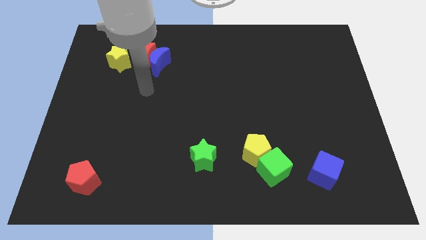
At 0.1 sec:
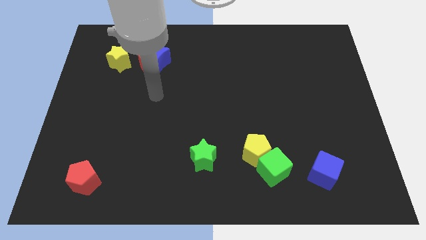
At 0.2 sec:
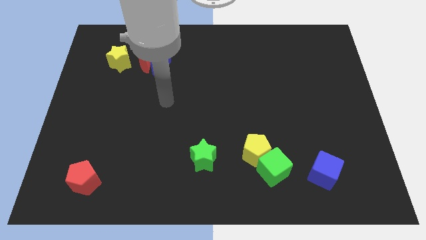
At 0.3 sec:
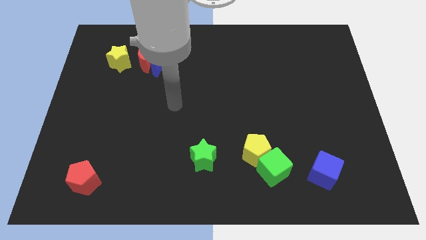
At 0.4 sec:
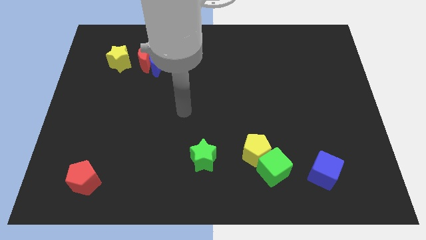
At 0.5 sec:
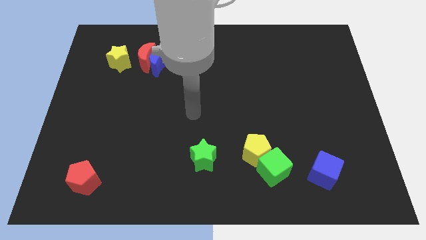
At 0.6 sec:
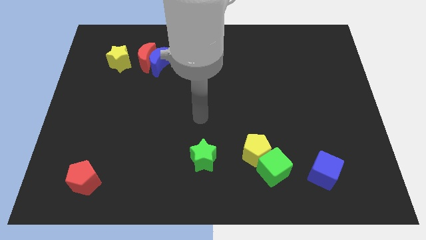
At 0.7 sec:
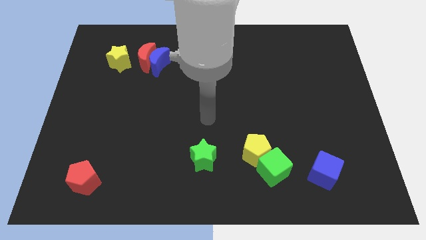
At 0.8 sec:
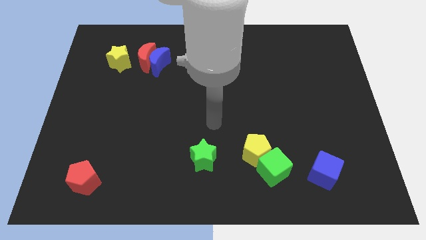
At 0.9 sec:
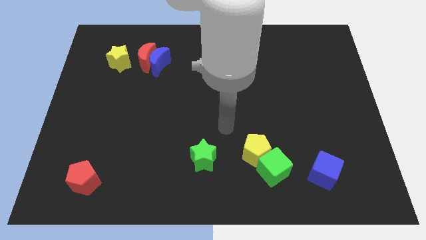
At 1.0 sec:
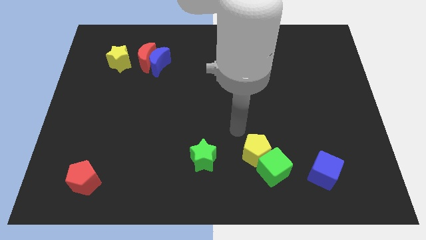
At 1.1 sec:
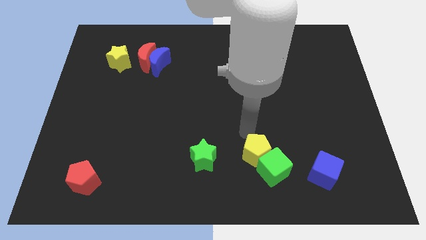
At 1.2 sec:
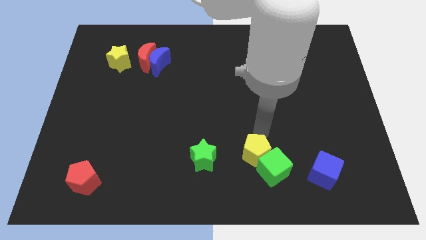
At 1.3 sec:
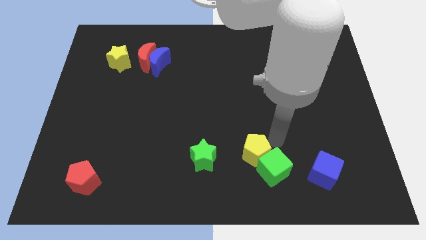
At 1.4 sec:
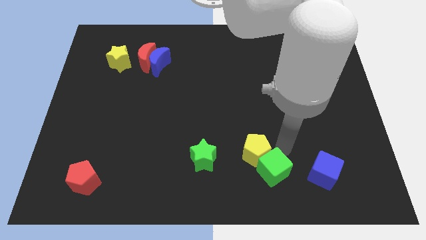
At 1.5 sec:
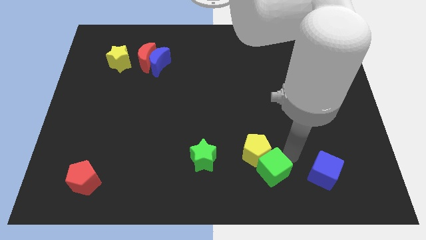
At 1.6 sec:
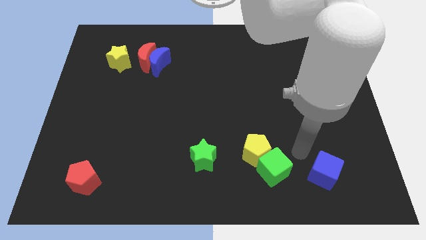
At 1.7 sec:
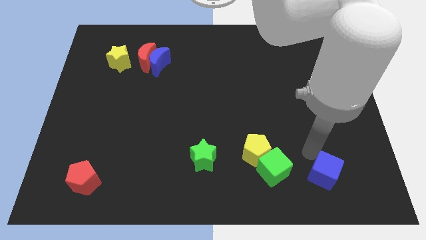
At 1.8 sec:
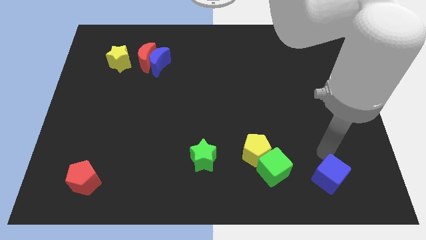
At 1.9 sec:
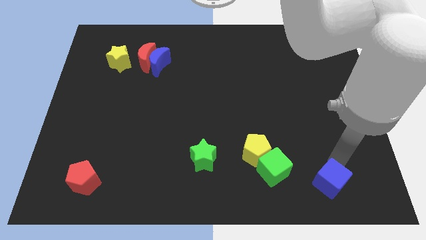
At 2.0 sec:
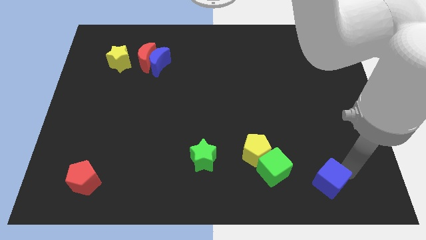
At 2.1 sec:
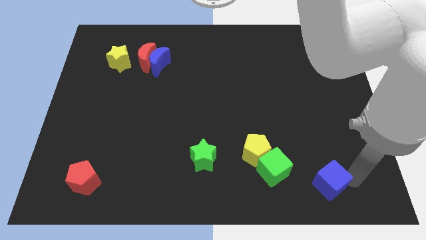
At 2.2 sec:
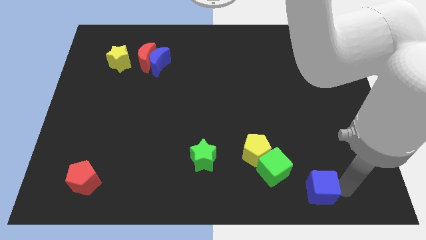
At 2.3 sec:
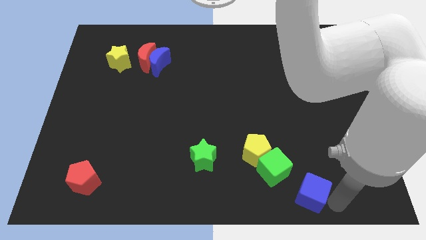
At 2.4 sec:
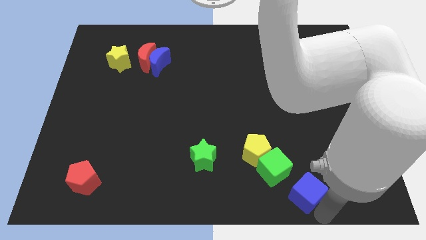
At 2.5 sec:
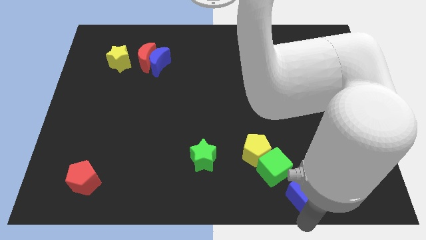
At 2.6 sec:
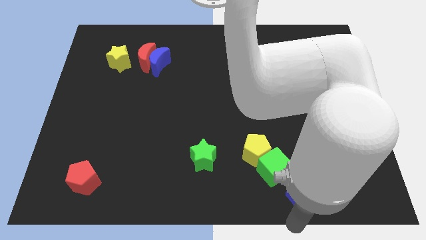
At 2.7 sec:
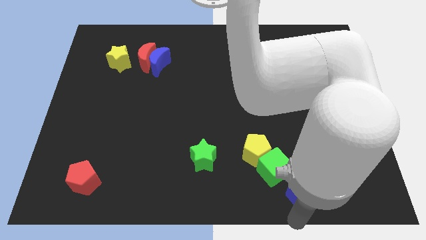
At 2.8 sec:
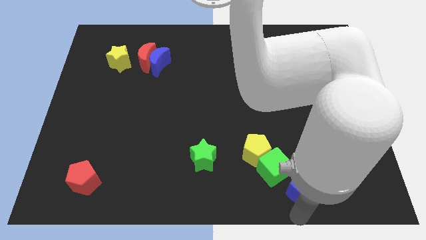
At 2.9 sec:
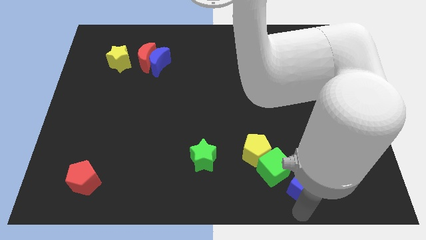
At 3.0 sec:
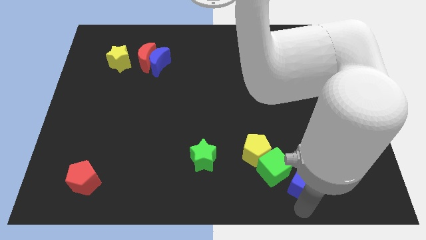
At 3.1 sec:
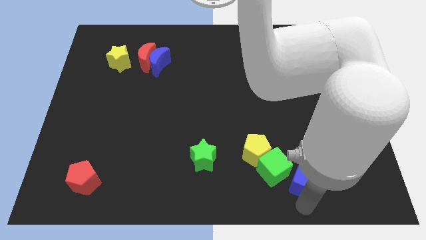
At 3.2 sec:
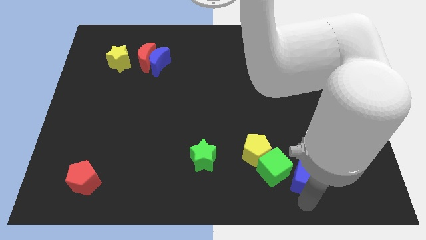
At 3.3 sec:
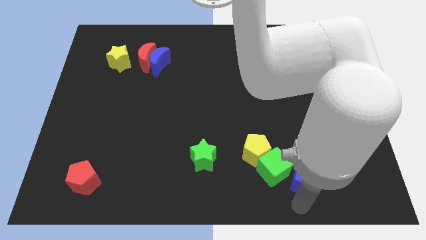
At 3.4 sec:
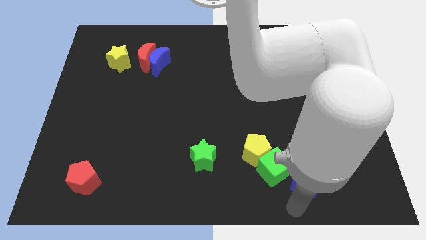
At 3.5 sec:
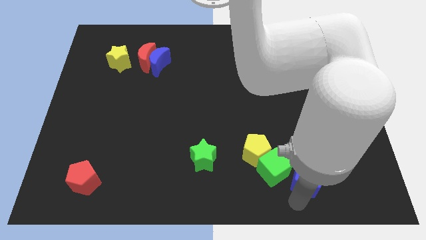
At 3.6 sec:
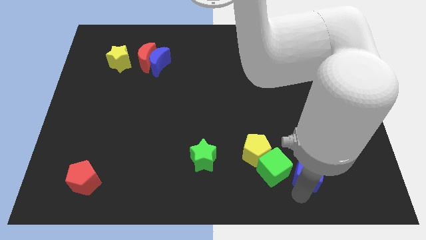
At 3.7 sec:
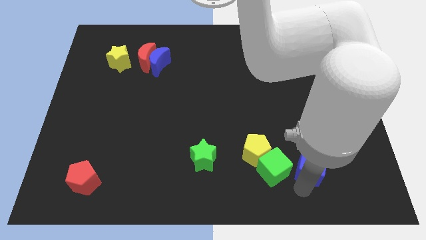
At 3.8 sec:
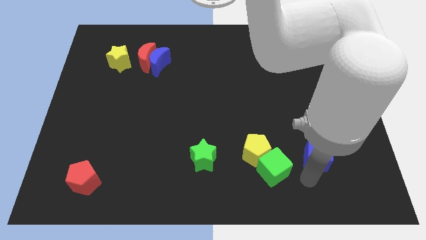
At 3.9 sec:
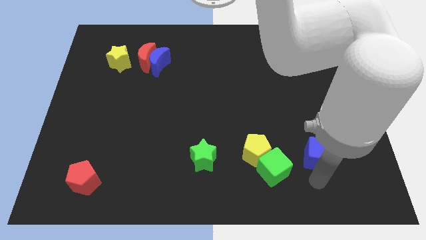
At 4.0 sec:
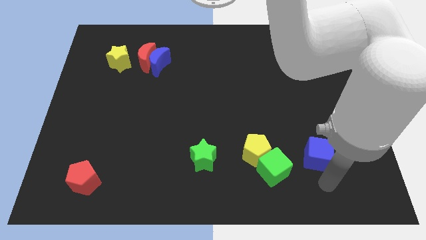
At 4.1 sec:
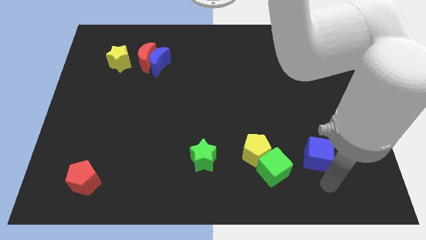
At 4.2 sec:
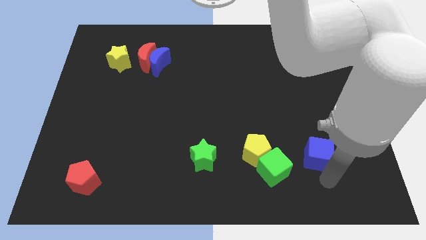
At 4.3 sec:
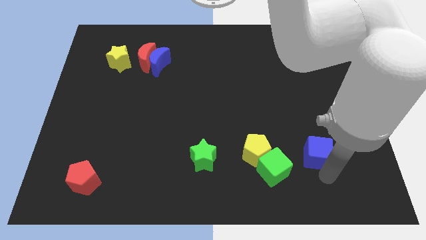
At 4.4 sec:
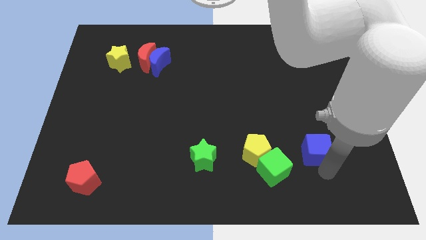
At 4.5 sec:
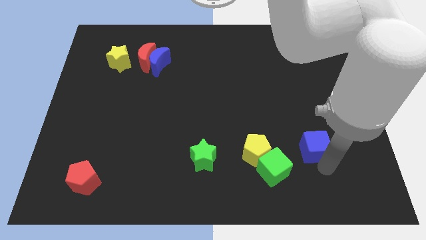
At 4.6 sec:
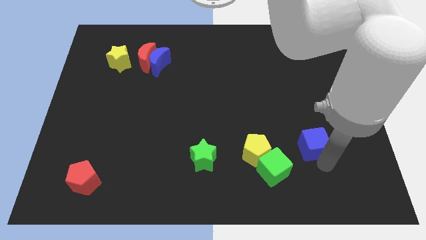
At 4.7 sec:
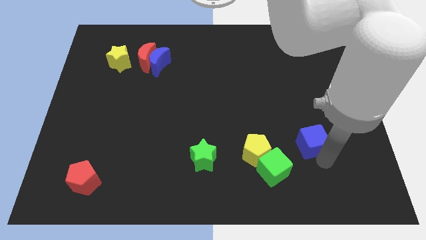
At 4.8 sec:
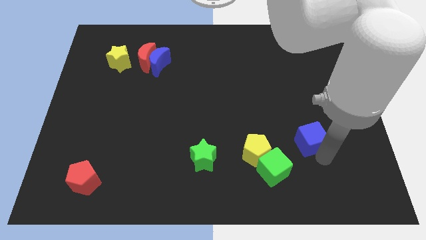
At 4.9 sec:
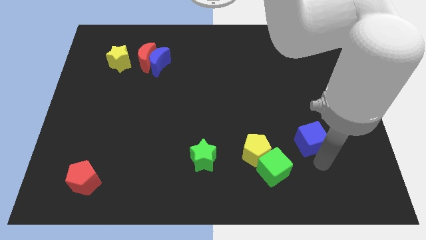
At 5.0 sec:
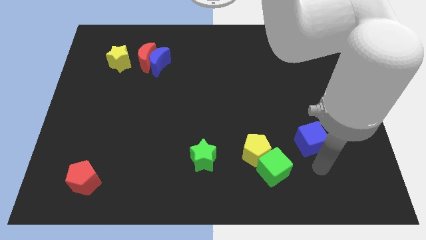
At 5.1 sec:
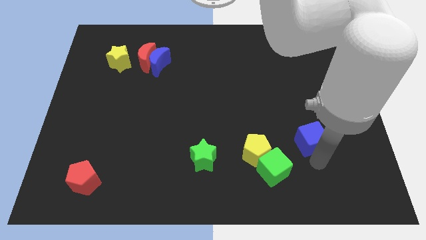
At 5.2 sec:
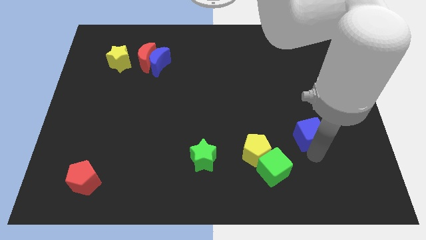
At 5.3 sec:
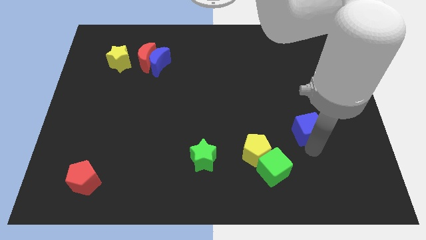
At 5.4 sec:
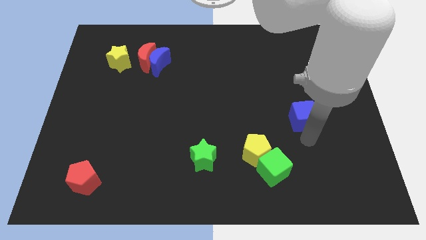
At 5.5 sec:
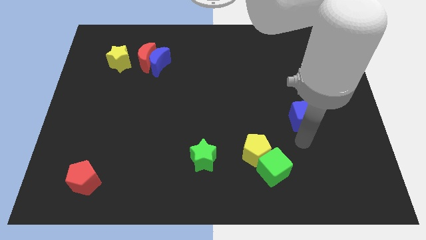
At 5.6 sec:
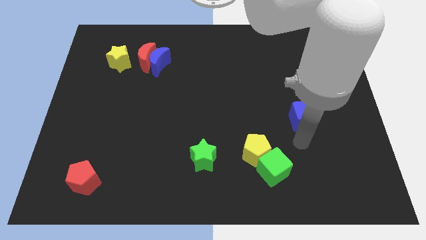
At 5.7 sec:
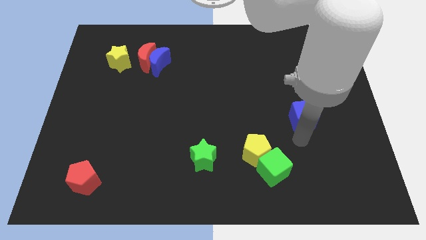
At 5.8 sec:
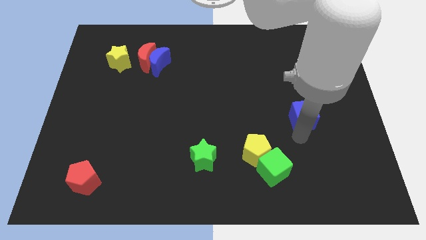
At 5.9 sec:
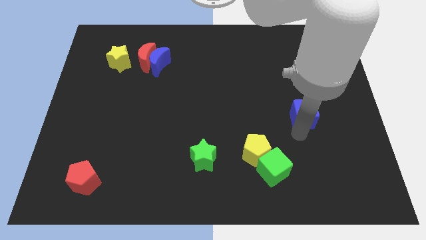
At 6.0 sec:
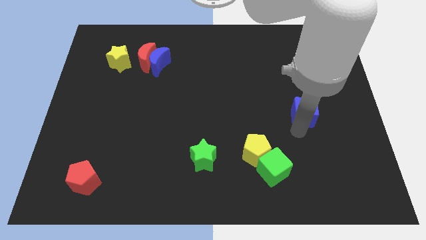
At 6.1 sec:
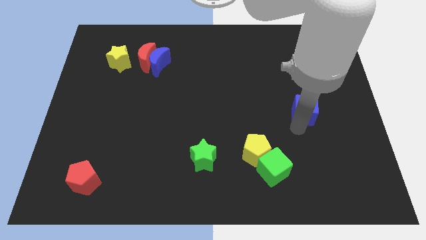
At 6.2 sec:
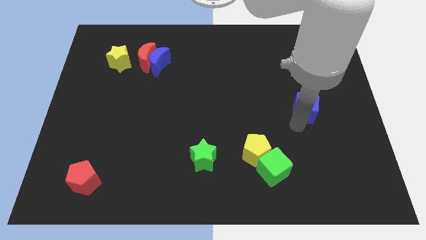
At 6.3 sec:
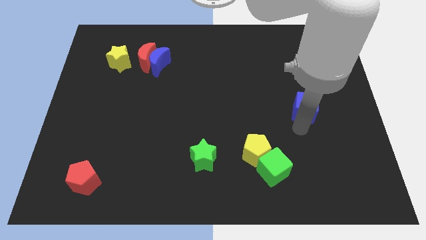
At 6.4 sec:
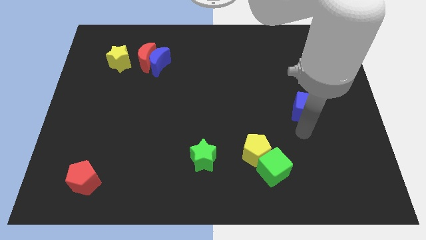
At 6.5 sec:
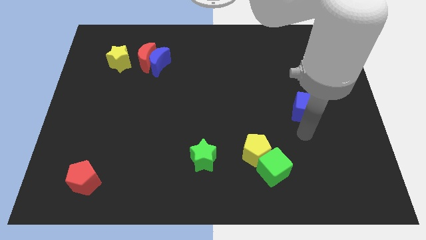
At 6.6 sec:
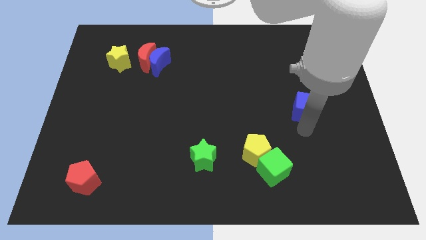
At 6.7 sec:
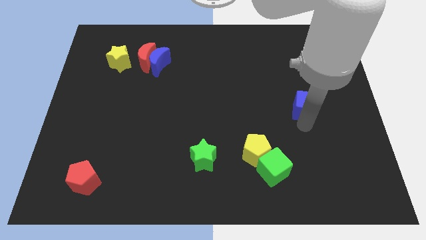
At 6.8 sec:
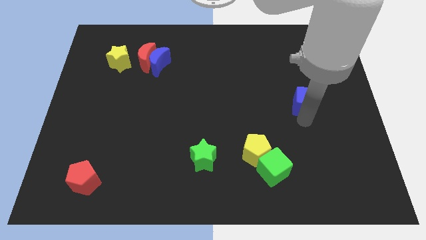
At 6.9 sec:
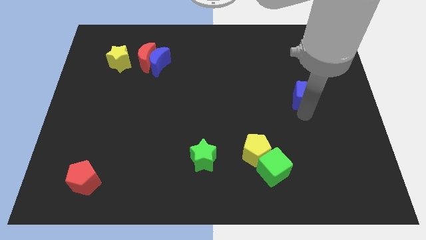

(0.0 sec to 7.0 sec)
slide the blue cube up

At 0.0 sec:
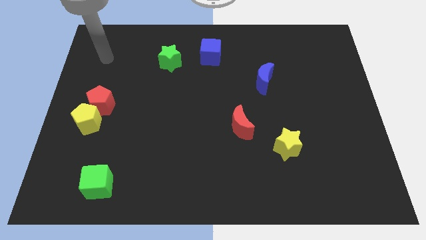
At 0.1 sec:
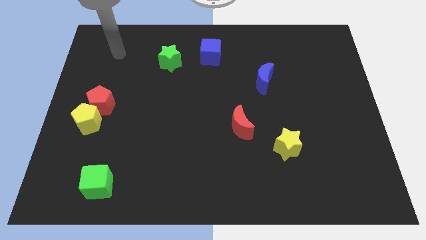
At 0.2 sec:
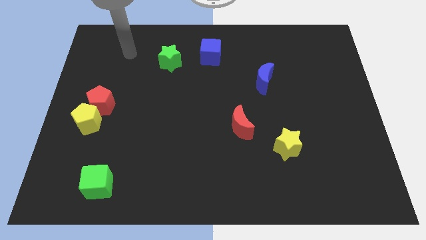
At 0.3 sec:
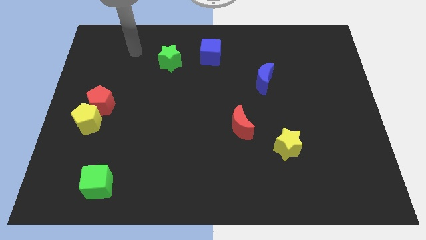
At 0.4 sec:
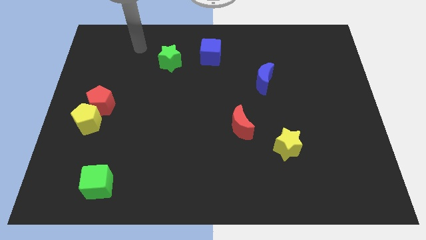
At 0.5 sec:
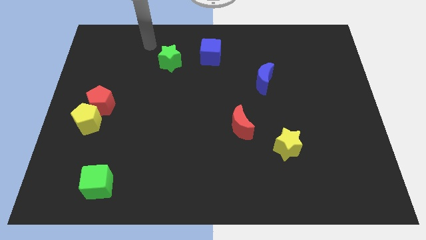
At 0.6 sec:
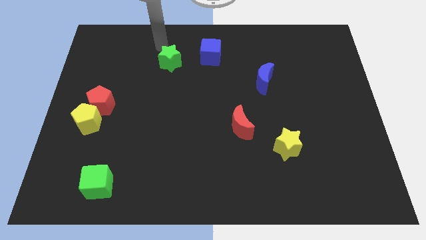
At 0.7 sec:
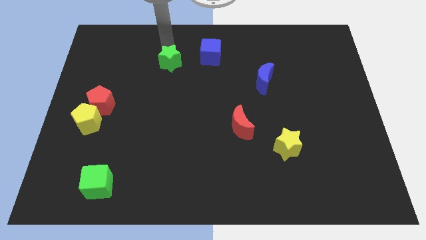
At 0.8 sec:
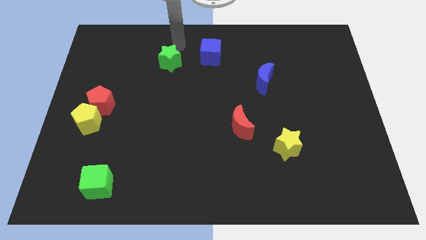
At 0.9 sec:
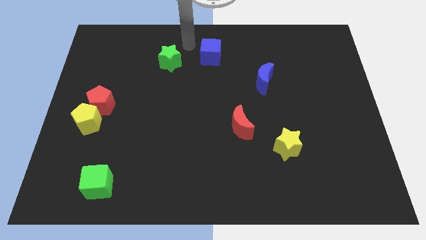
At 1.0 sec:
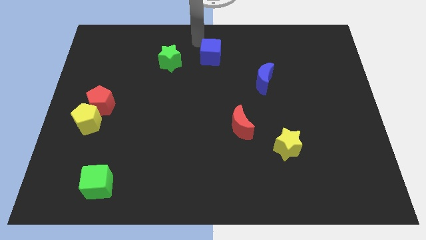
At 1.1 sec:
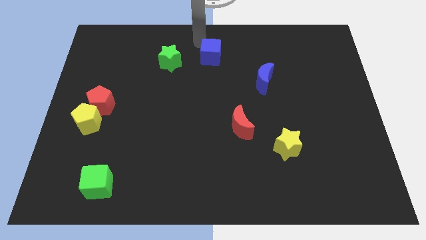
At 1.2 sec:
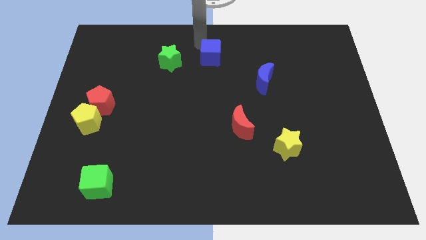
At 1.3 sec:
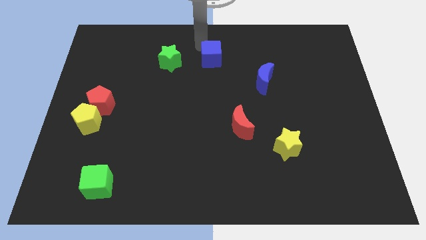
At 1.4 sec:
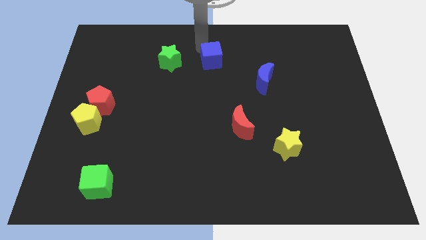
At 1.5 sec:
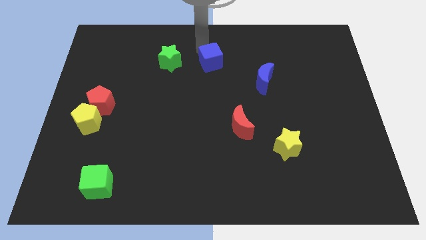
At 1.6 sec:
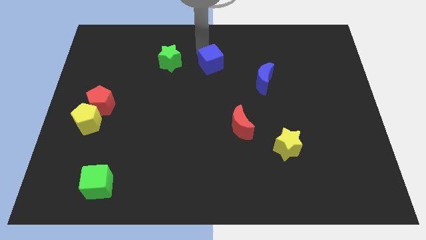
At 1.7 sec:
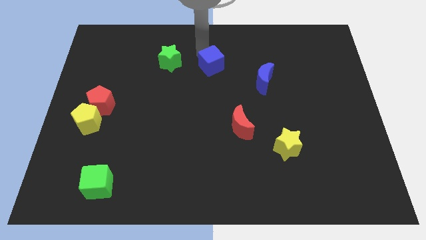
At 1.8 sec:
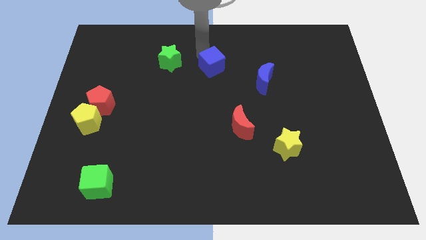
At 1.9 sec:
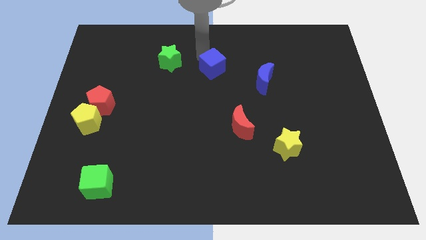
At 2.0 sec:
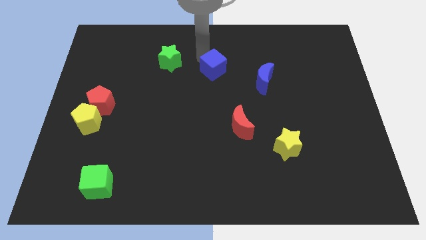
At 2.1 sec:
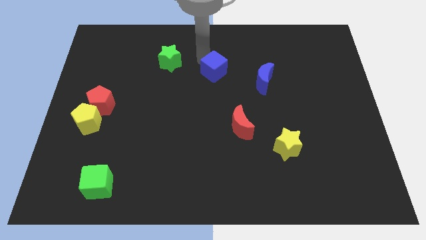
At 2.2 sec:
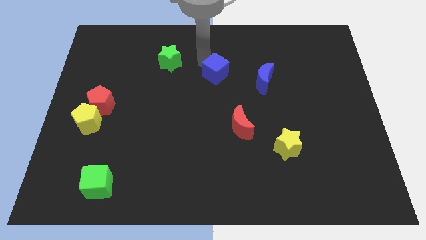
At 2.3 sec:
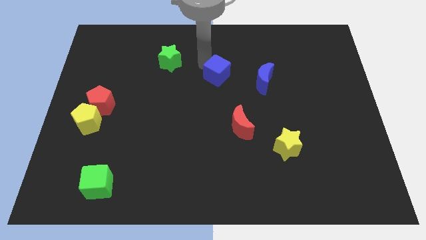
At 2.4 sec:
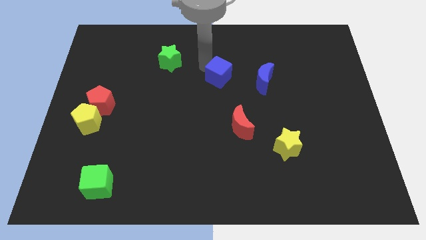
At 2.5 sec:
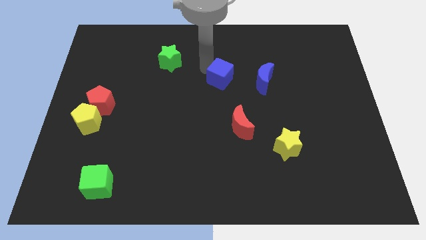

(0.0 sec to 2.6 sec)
move the blue cube downwards and right slightly
